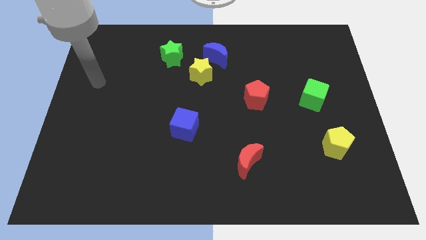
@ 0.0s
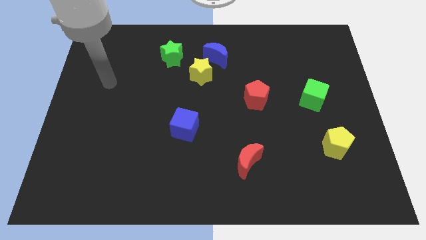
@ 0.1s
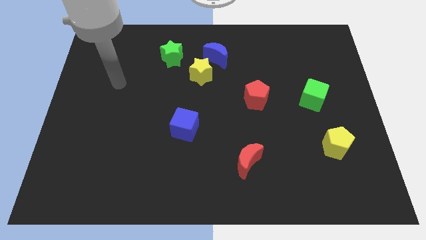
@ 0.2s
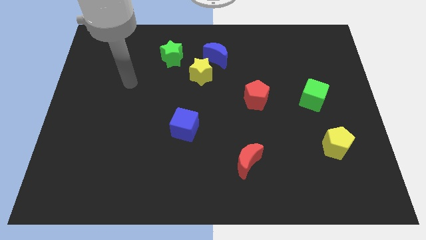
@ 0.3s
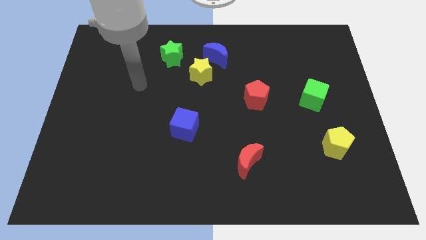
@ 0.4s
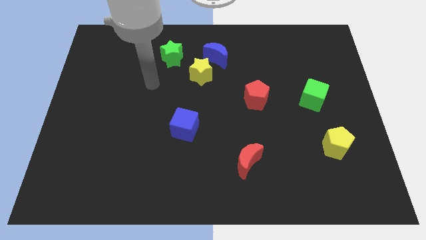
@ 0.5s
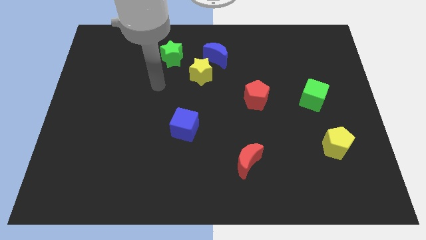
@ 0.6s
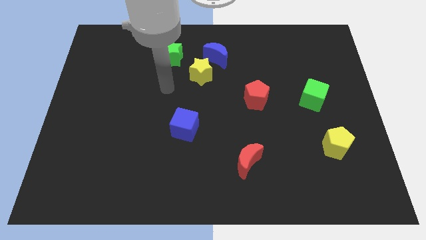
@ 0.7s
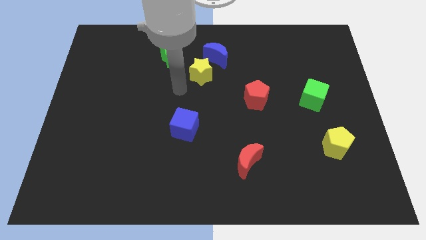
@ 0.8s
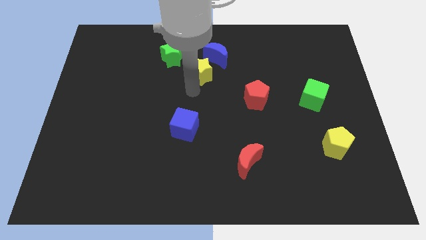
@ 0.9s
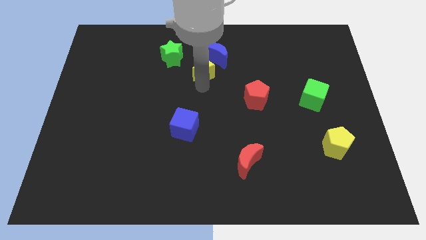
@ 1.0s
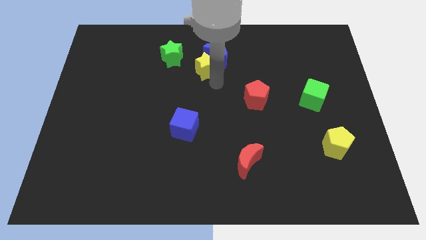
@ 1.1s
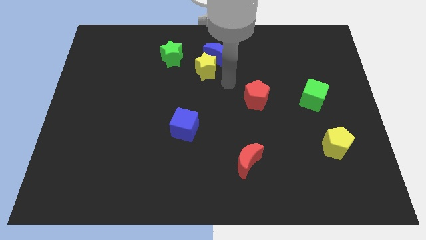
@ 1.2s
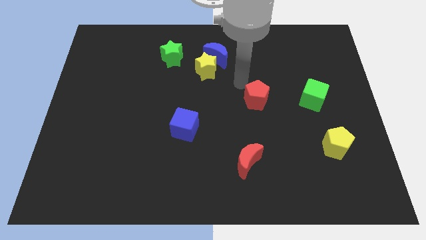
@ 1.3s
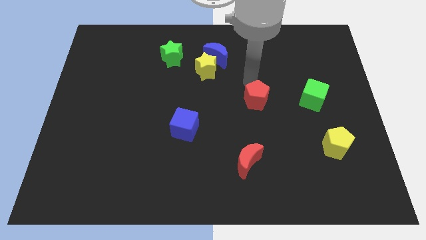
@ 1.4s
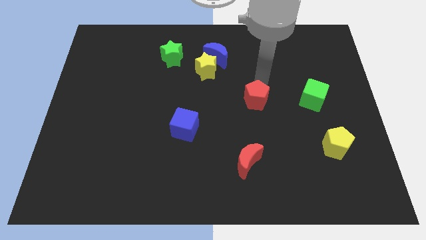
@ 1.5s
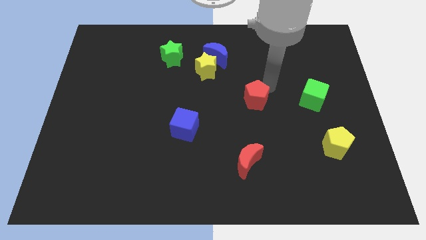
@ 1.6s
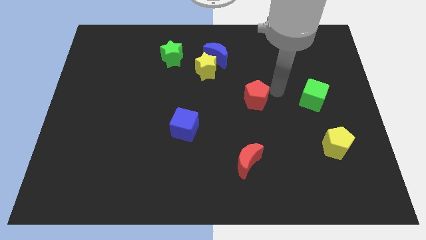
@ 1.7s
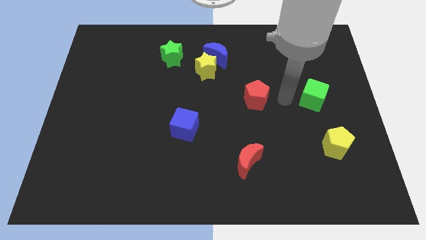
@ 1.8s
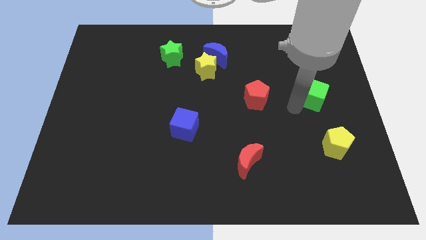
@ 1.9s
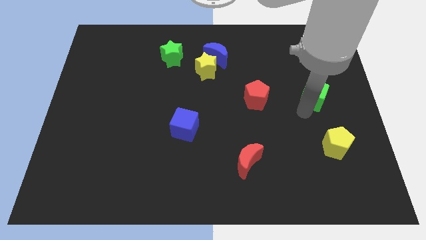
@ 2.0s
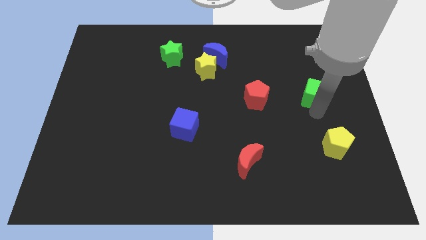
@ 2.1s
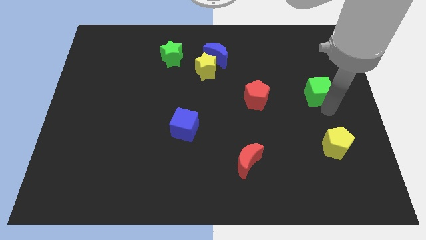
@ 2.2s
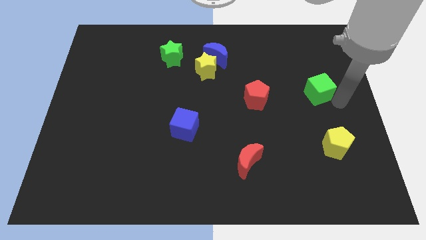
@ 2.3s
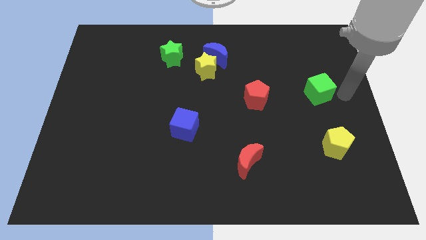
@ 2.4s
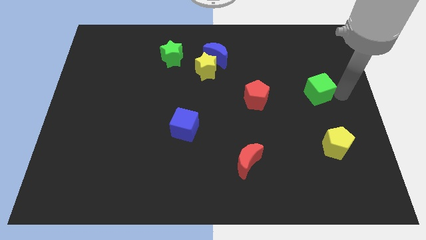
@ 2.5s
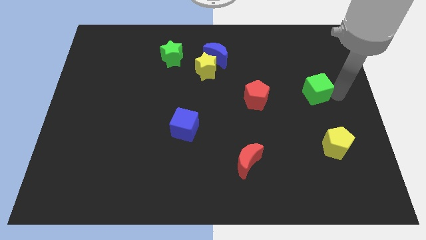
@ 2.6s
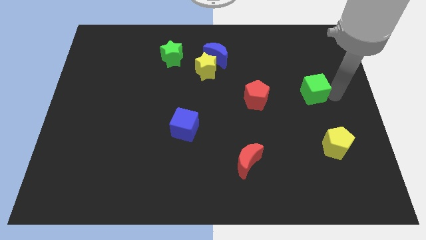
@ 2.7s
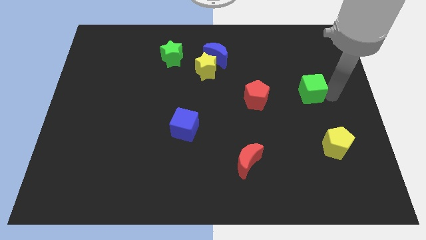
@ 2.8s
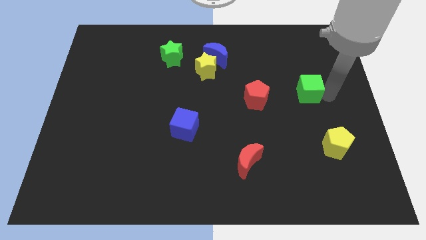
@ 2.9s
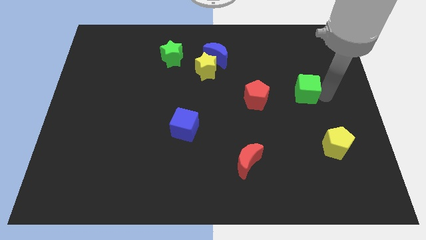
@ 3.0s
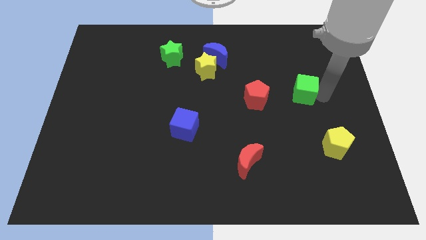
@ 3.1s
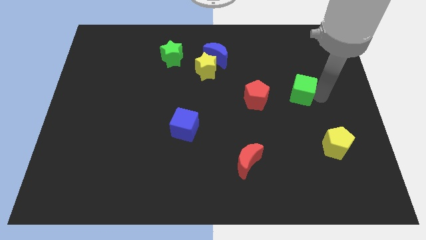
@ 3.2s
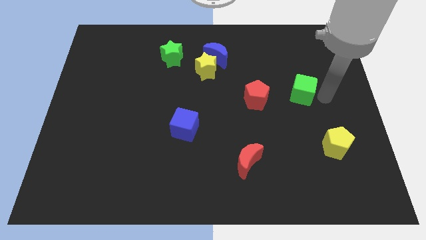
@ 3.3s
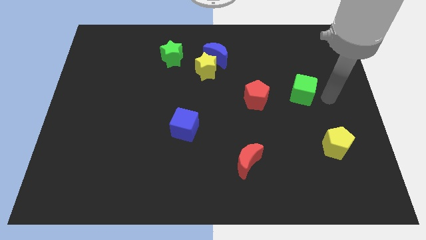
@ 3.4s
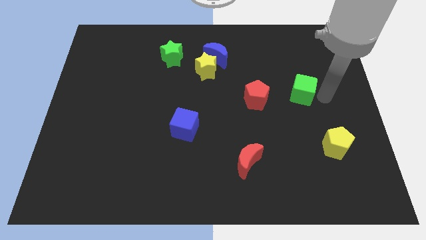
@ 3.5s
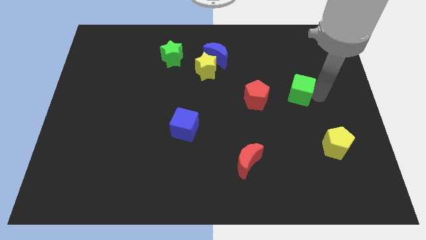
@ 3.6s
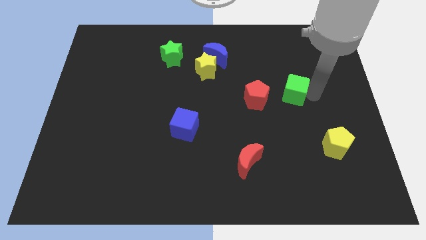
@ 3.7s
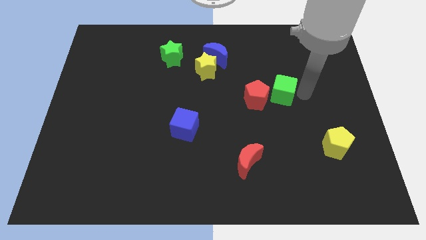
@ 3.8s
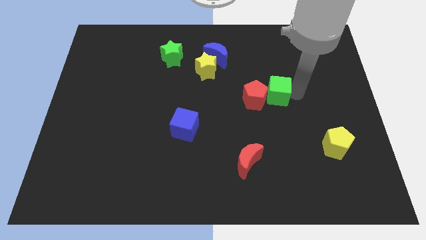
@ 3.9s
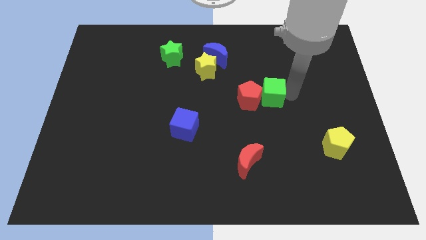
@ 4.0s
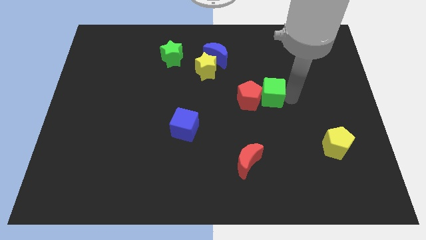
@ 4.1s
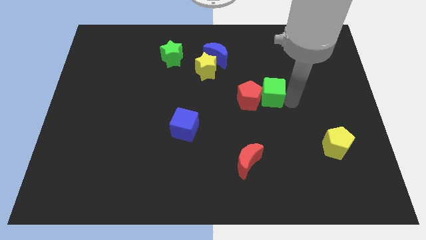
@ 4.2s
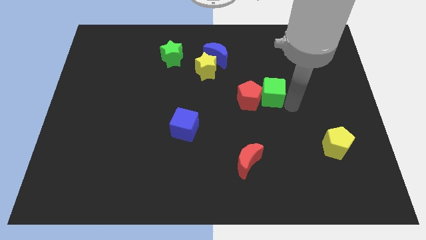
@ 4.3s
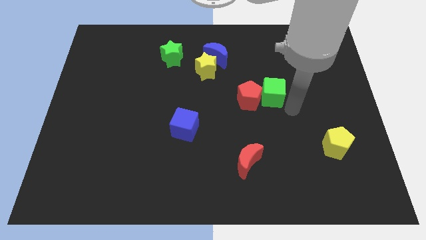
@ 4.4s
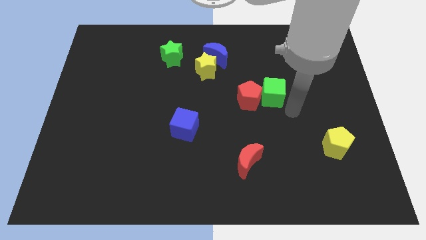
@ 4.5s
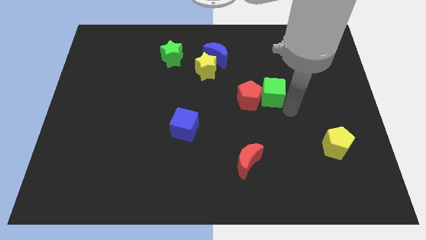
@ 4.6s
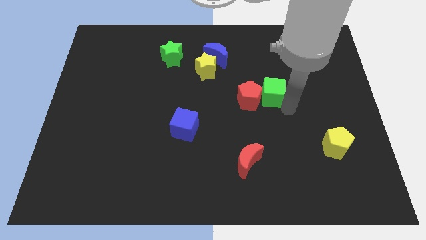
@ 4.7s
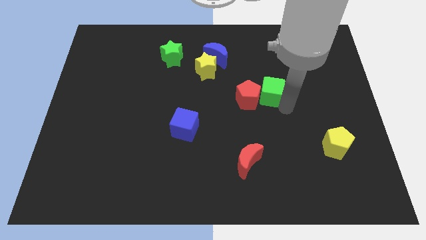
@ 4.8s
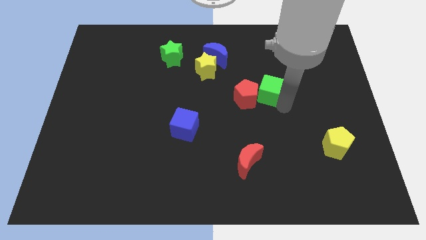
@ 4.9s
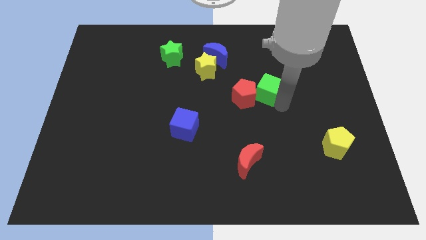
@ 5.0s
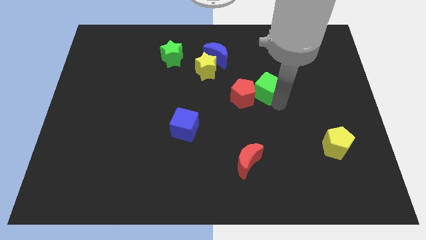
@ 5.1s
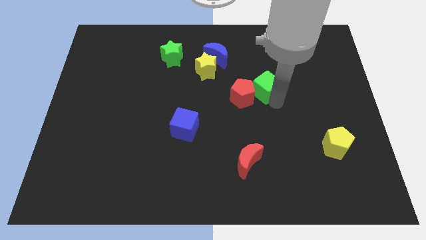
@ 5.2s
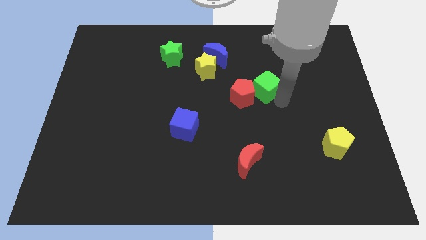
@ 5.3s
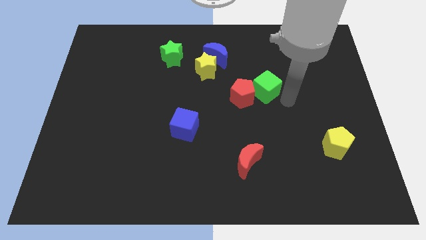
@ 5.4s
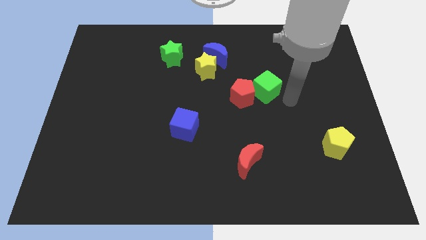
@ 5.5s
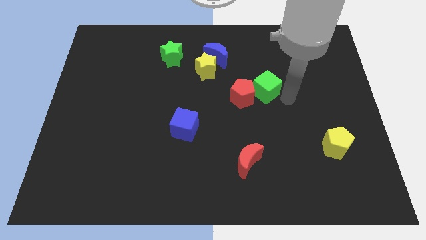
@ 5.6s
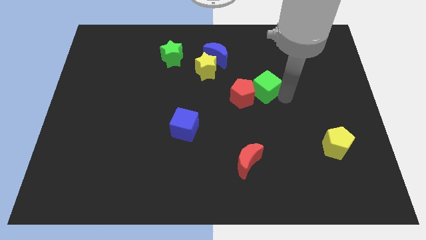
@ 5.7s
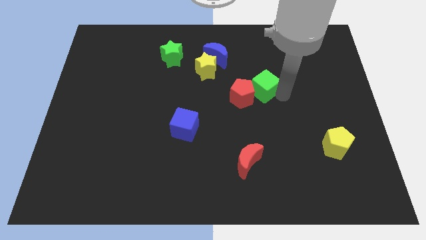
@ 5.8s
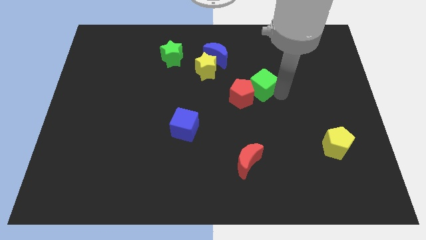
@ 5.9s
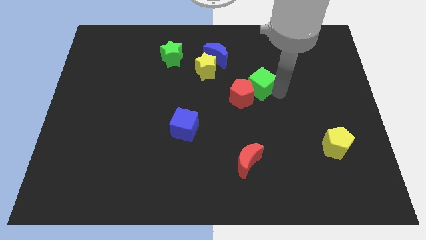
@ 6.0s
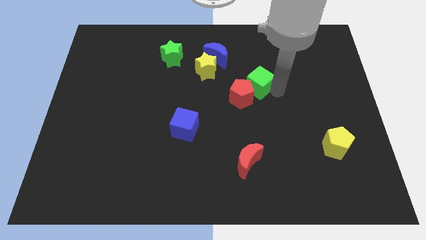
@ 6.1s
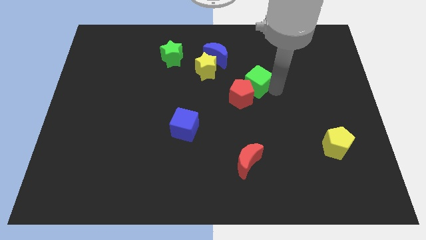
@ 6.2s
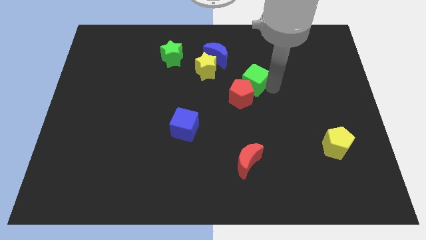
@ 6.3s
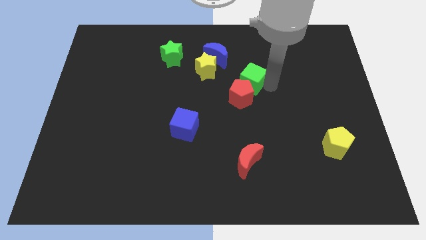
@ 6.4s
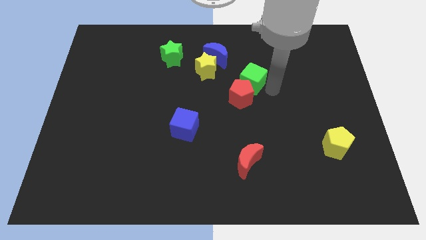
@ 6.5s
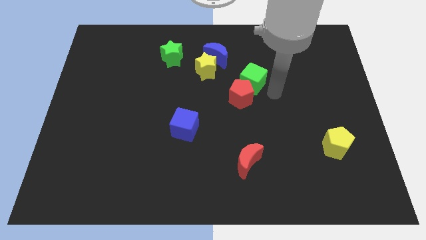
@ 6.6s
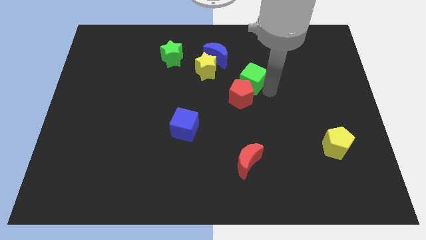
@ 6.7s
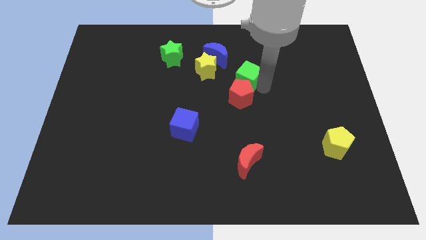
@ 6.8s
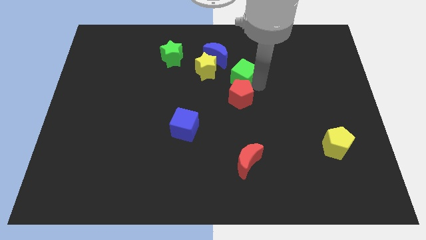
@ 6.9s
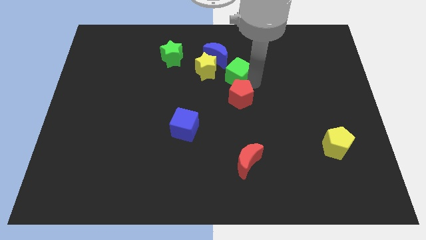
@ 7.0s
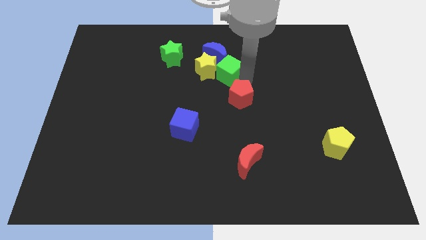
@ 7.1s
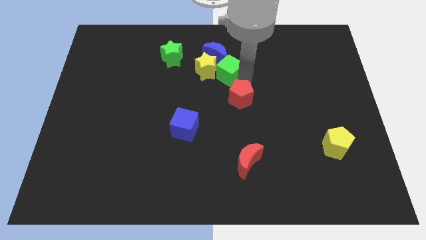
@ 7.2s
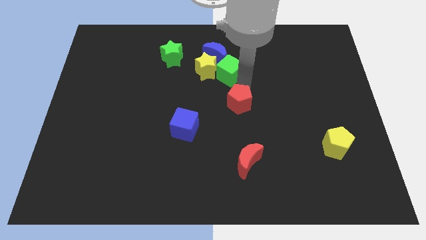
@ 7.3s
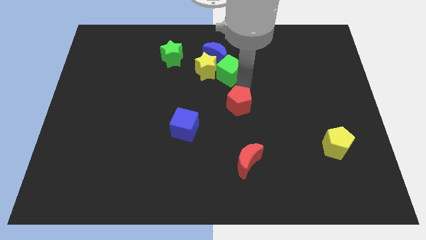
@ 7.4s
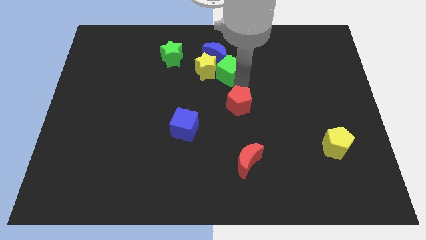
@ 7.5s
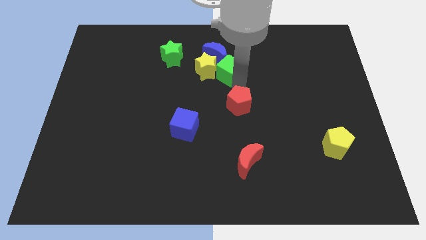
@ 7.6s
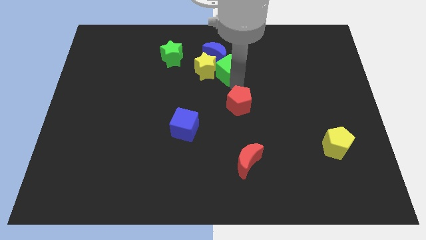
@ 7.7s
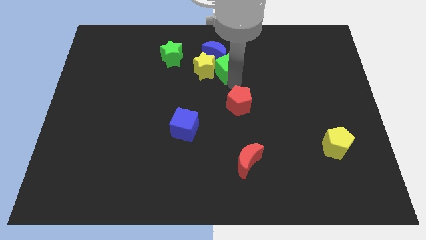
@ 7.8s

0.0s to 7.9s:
move the green cube next to the blue moon

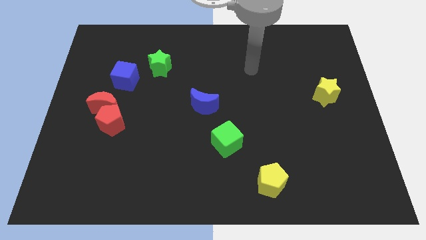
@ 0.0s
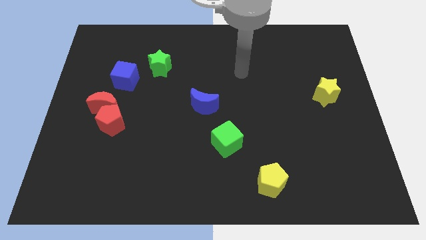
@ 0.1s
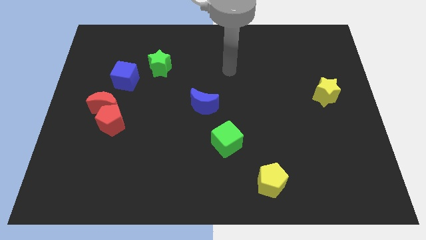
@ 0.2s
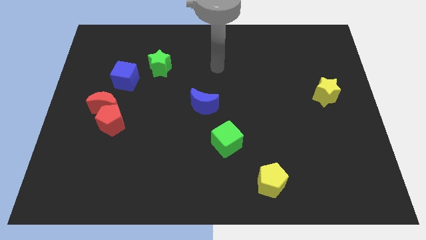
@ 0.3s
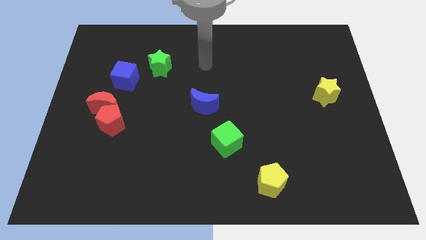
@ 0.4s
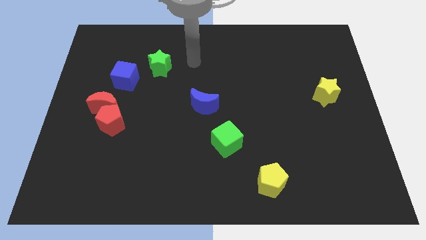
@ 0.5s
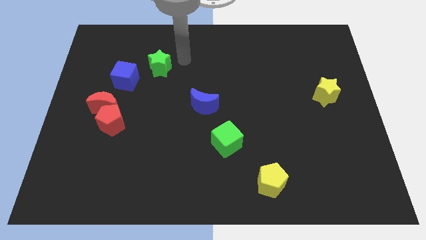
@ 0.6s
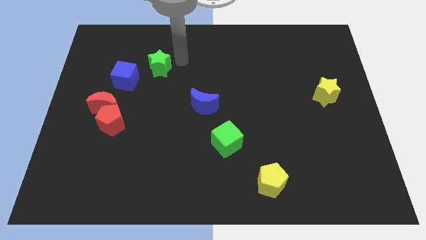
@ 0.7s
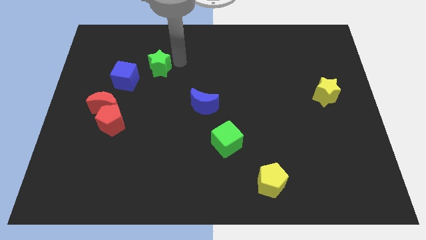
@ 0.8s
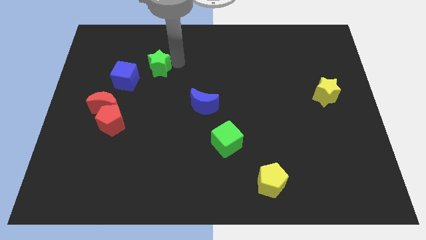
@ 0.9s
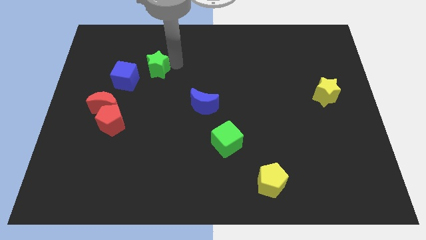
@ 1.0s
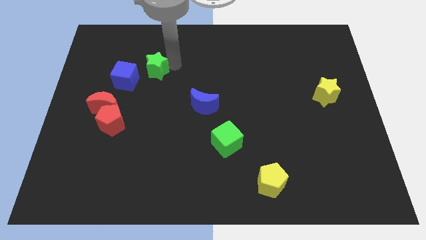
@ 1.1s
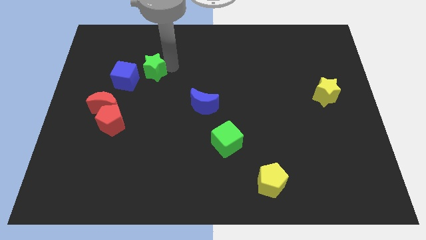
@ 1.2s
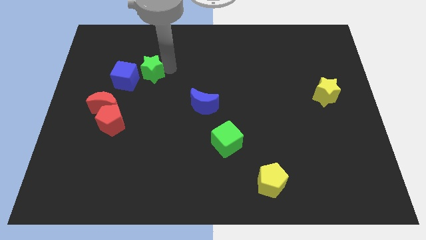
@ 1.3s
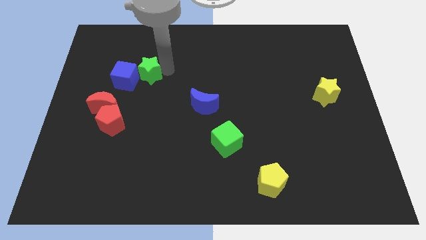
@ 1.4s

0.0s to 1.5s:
move the green star to the blue cube
